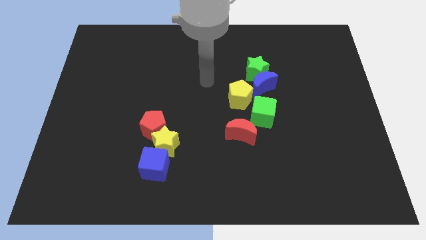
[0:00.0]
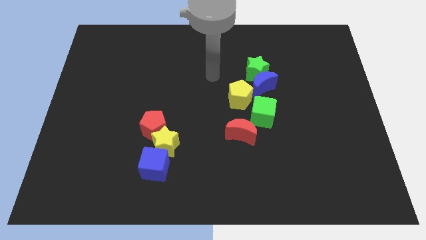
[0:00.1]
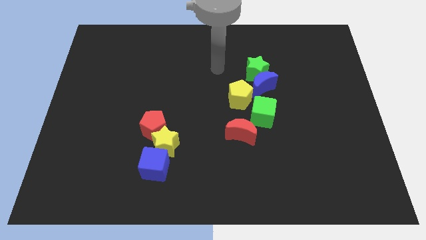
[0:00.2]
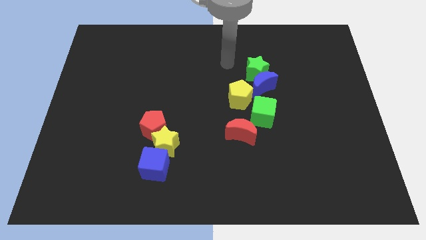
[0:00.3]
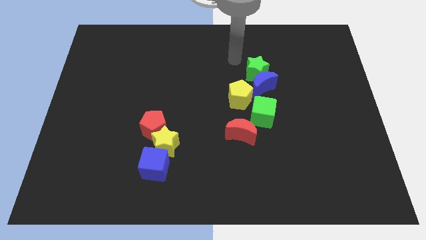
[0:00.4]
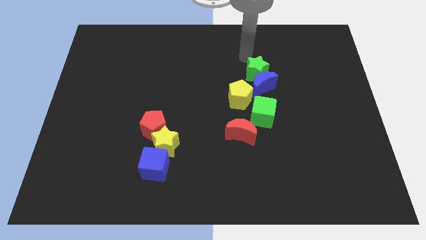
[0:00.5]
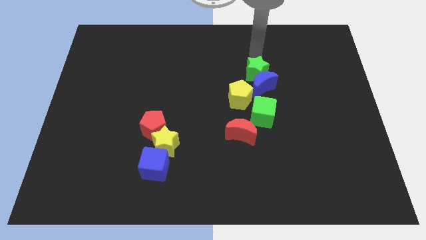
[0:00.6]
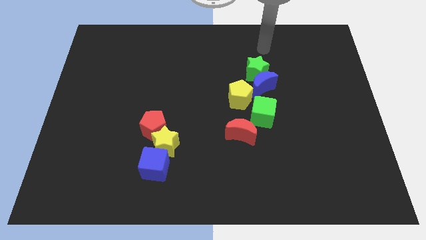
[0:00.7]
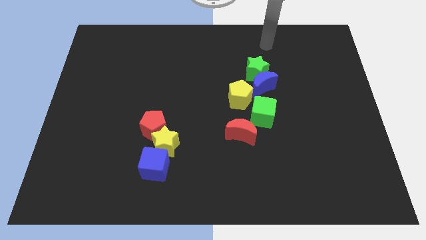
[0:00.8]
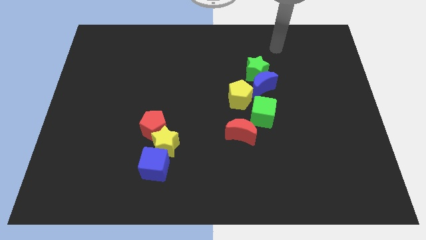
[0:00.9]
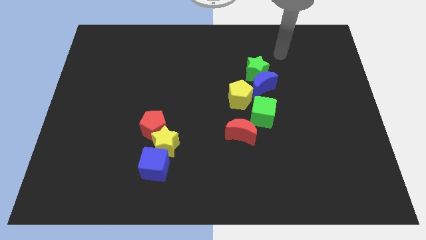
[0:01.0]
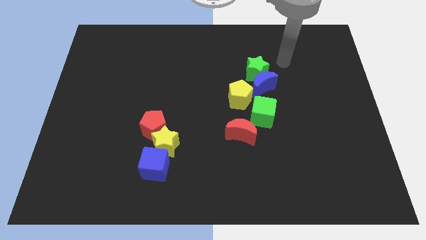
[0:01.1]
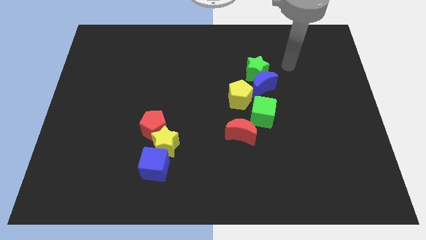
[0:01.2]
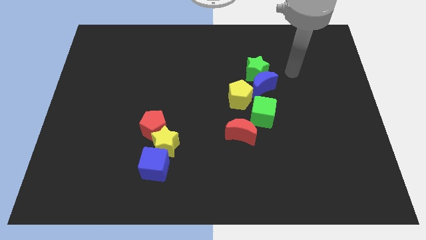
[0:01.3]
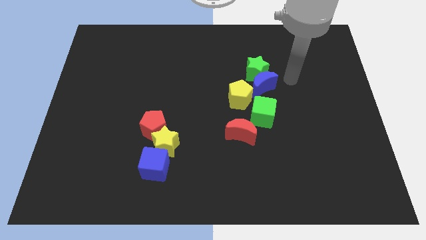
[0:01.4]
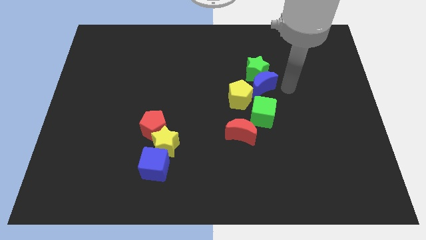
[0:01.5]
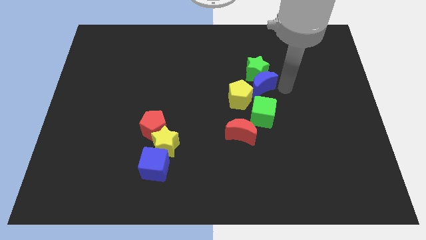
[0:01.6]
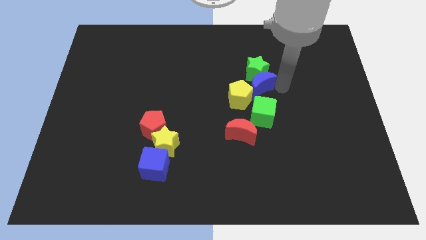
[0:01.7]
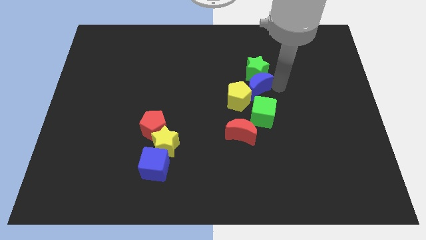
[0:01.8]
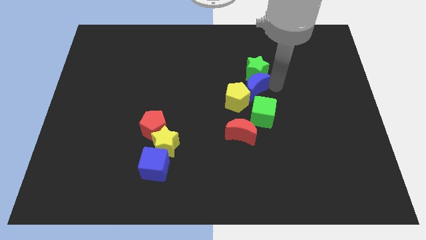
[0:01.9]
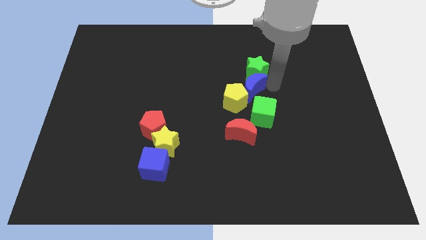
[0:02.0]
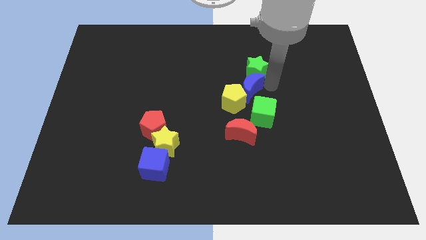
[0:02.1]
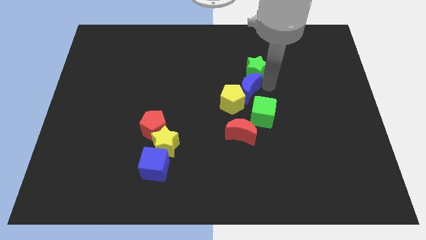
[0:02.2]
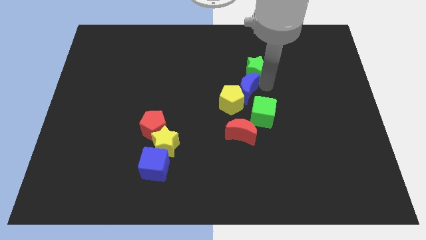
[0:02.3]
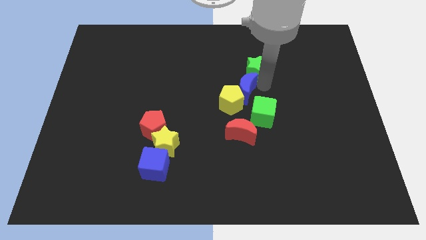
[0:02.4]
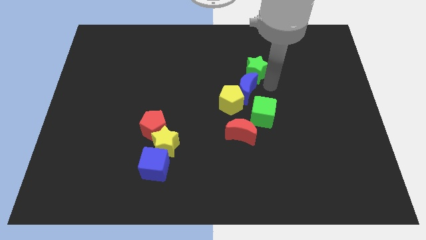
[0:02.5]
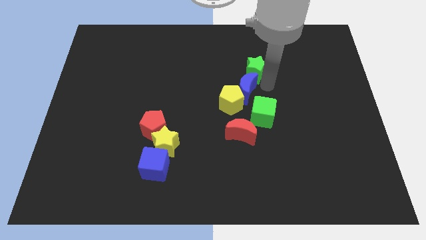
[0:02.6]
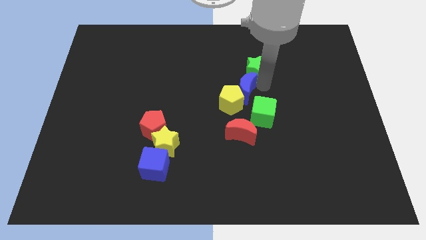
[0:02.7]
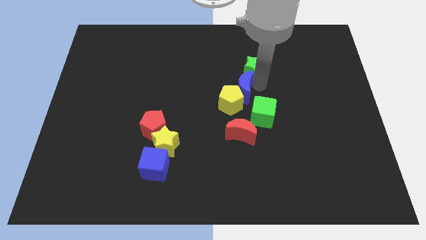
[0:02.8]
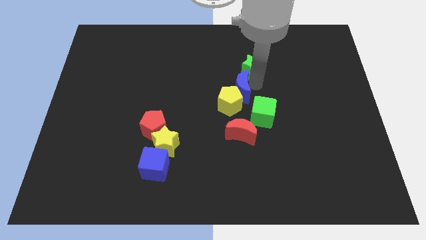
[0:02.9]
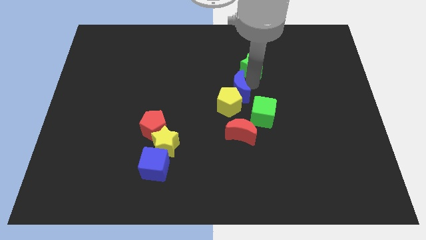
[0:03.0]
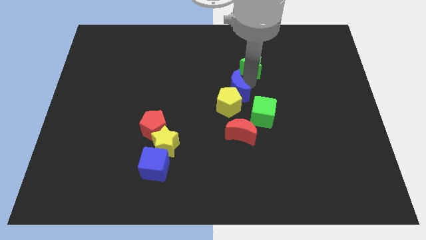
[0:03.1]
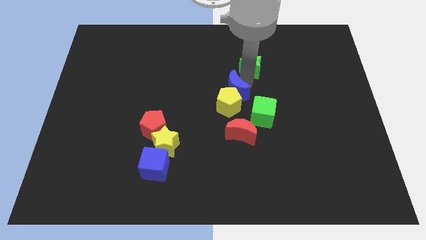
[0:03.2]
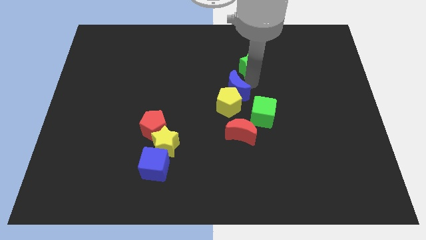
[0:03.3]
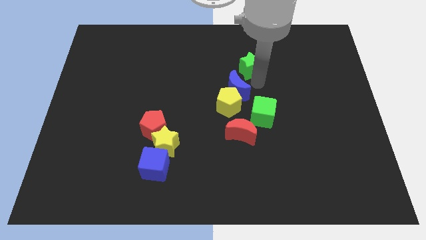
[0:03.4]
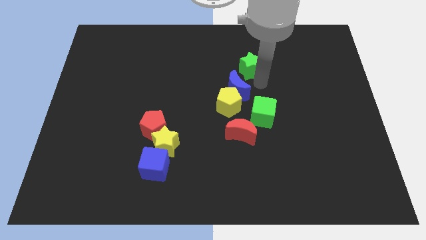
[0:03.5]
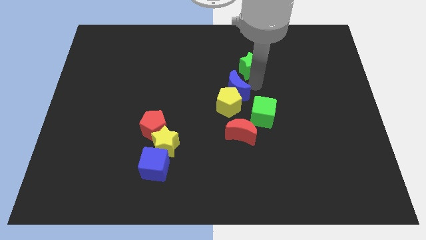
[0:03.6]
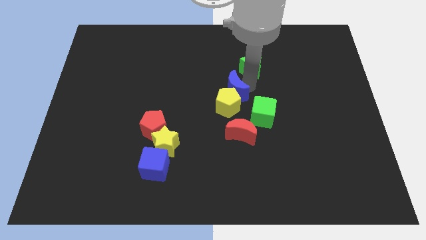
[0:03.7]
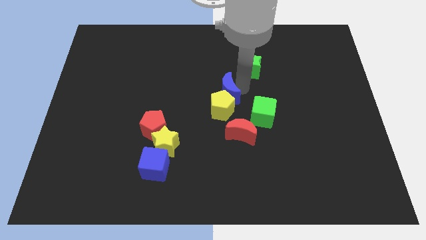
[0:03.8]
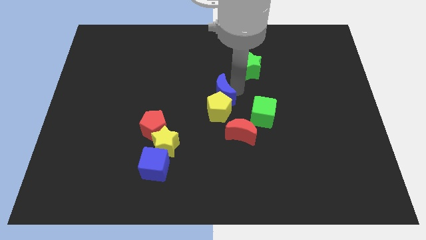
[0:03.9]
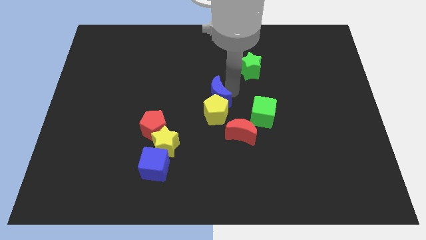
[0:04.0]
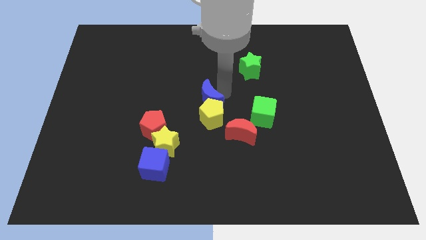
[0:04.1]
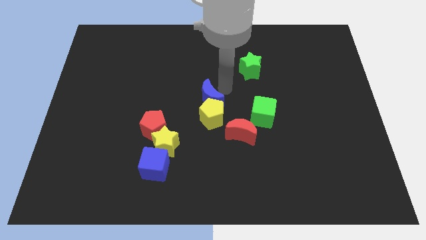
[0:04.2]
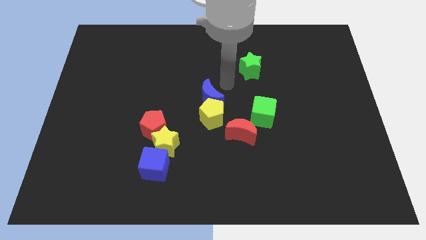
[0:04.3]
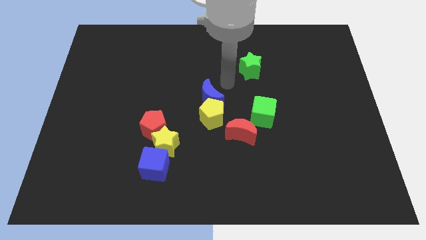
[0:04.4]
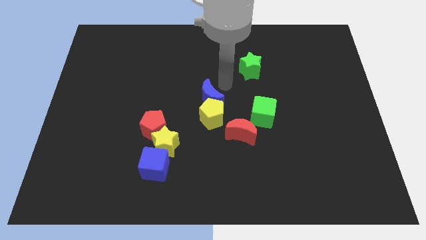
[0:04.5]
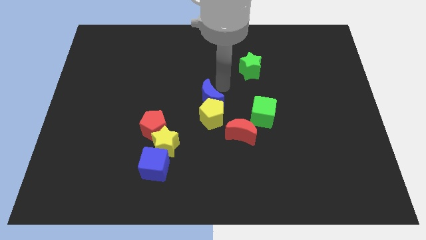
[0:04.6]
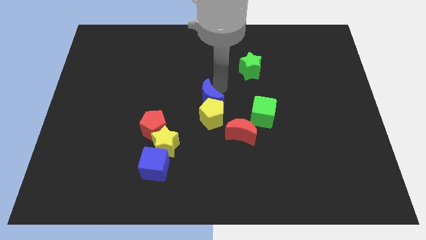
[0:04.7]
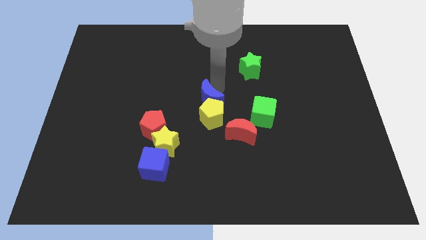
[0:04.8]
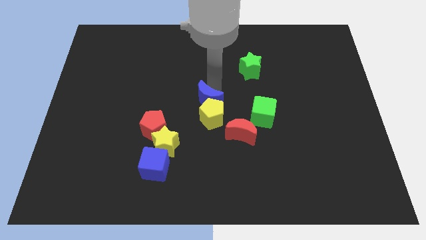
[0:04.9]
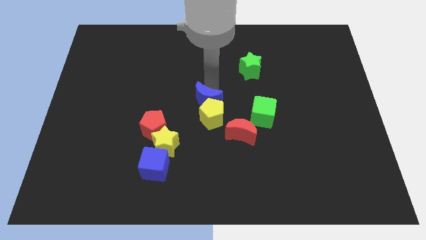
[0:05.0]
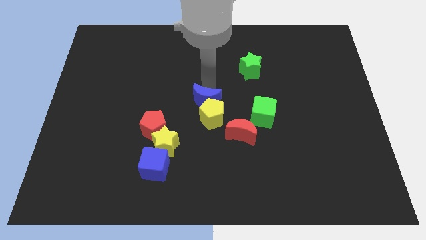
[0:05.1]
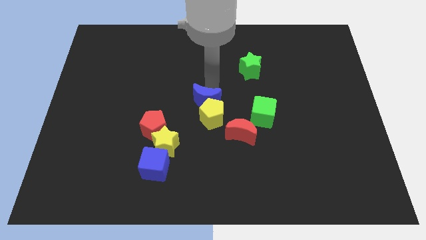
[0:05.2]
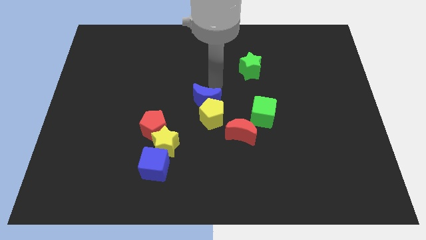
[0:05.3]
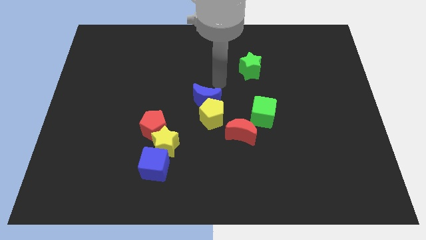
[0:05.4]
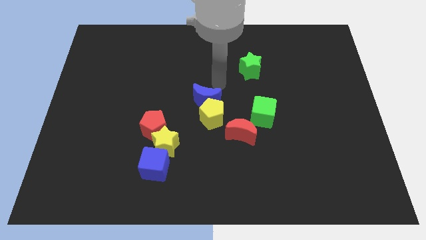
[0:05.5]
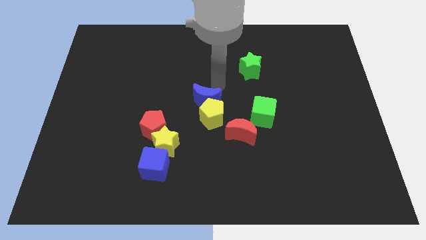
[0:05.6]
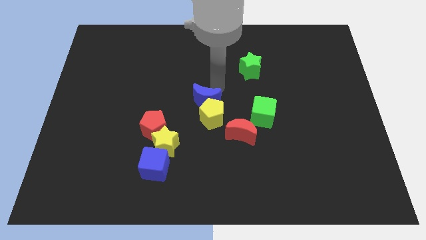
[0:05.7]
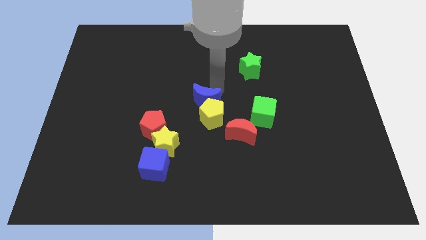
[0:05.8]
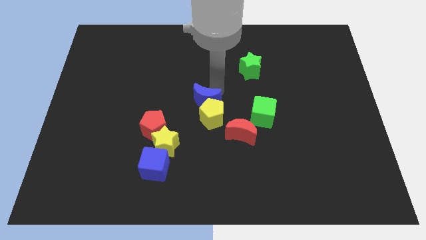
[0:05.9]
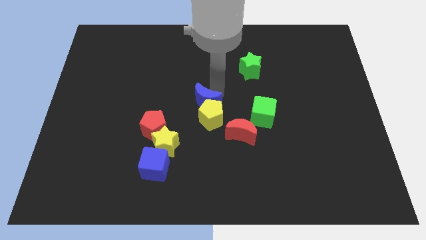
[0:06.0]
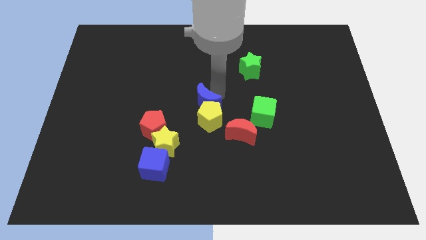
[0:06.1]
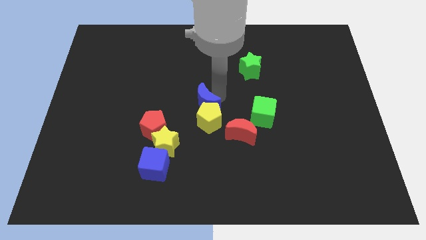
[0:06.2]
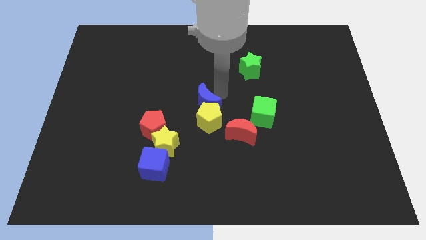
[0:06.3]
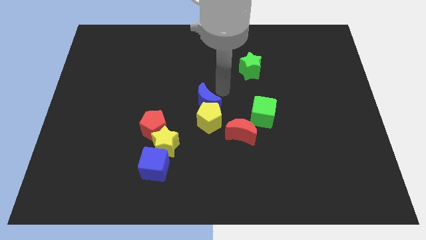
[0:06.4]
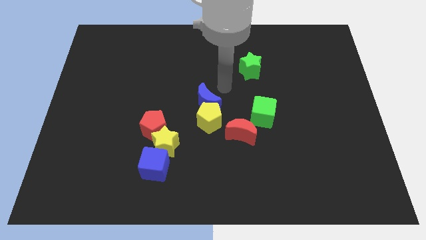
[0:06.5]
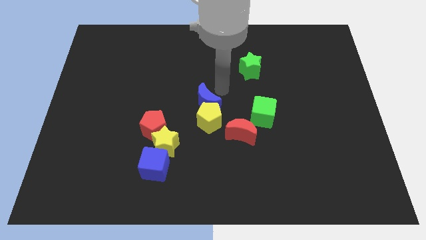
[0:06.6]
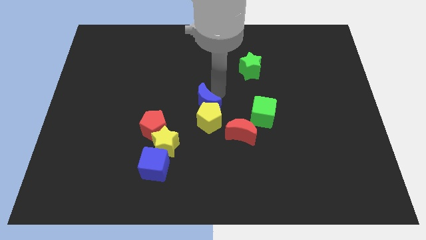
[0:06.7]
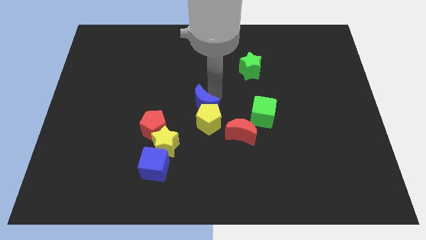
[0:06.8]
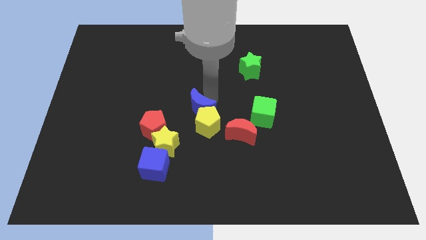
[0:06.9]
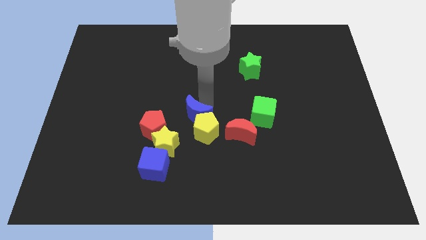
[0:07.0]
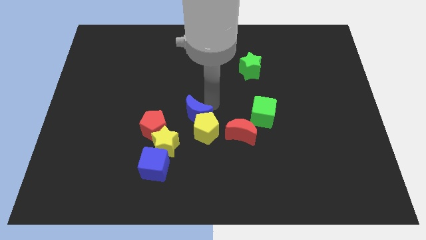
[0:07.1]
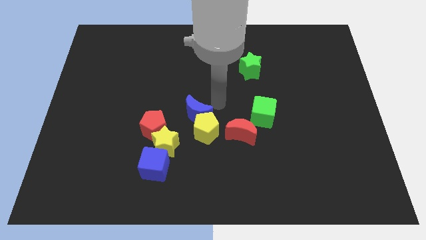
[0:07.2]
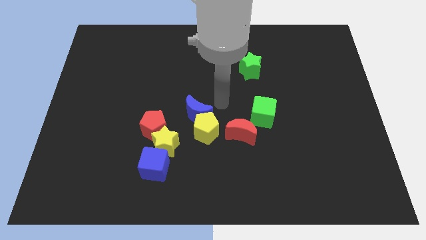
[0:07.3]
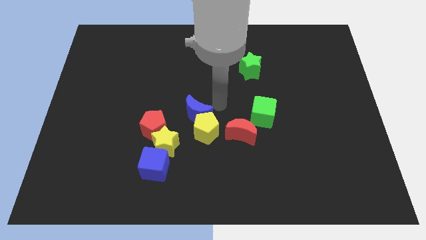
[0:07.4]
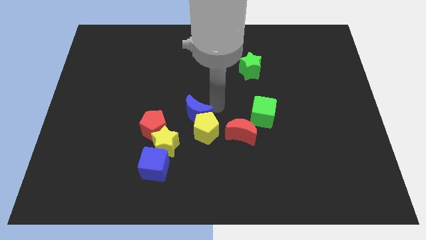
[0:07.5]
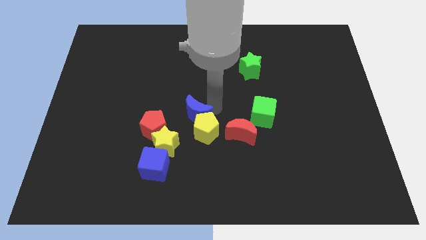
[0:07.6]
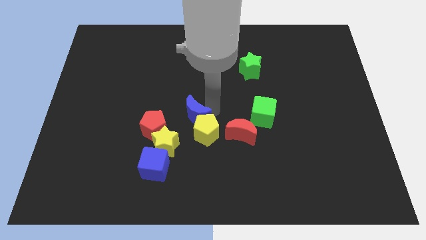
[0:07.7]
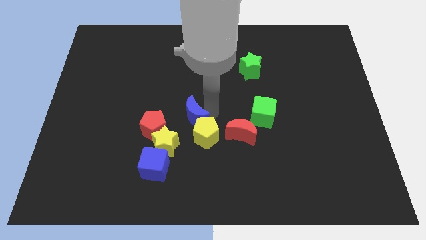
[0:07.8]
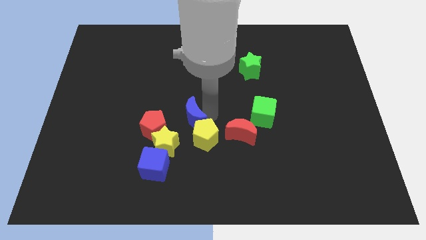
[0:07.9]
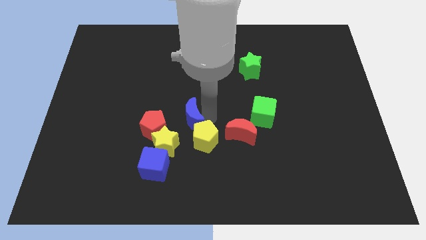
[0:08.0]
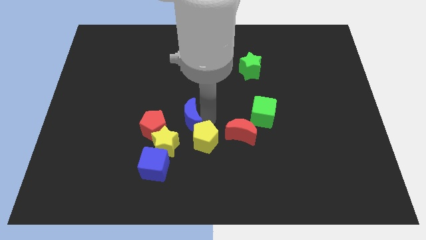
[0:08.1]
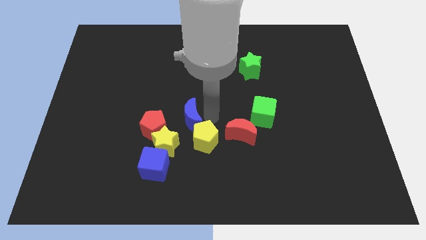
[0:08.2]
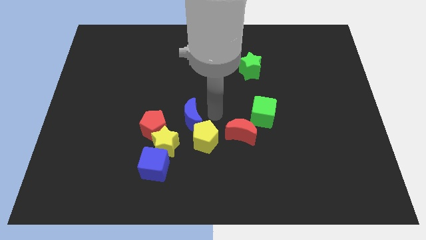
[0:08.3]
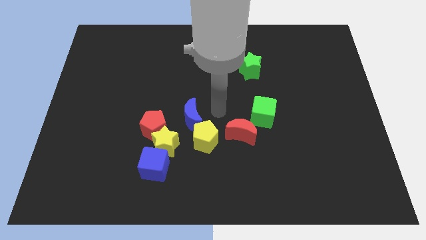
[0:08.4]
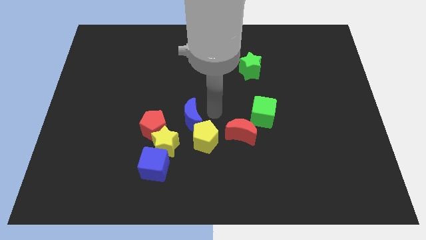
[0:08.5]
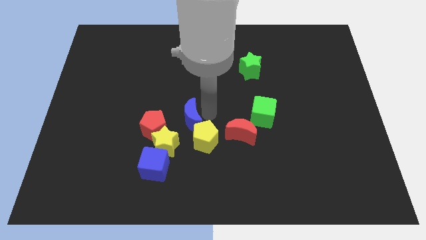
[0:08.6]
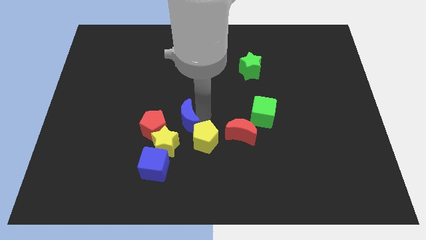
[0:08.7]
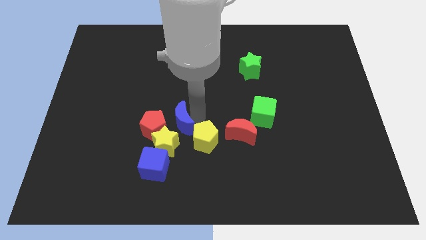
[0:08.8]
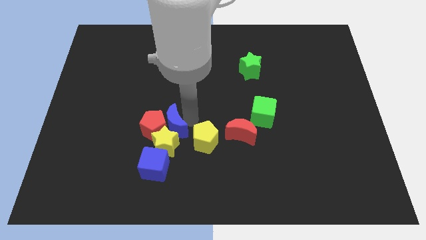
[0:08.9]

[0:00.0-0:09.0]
push the blue moon next to the red pentagon
